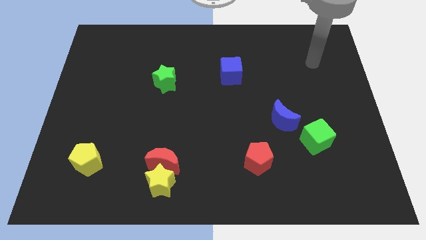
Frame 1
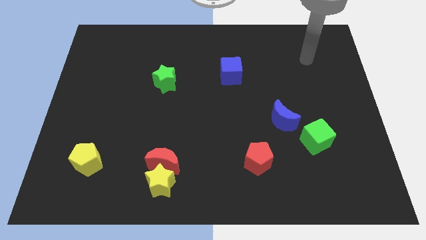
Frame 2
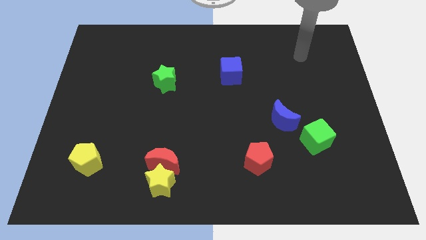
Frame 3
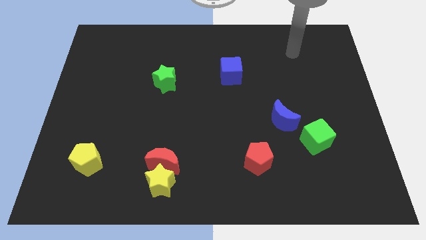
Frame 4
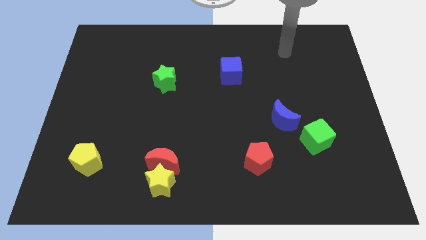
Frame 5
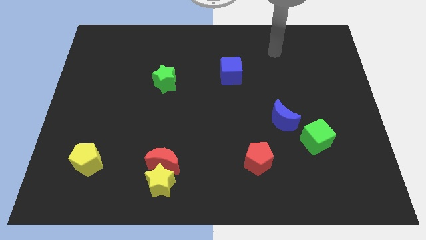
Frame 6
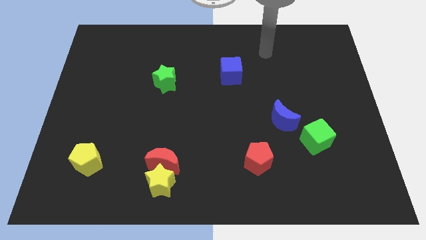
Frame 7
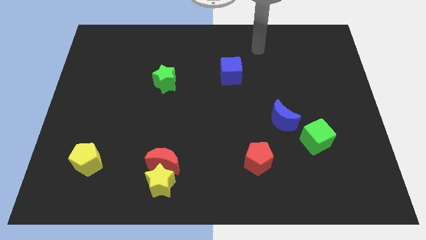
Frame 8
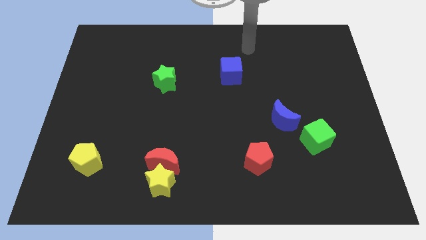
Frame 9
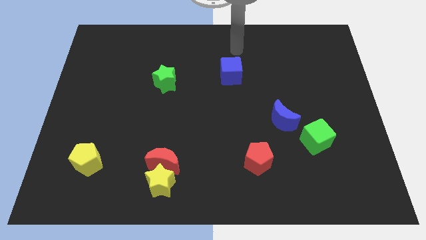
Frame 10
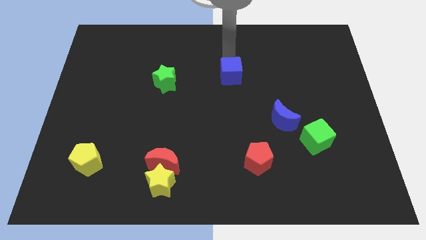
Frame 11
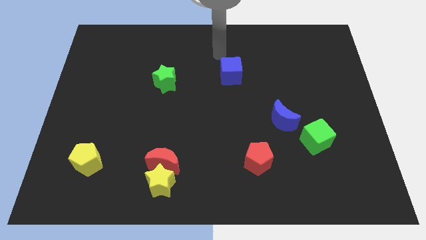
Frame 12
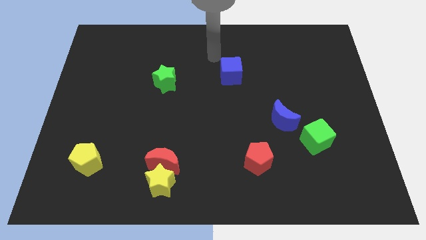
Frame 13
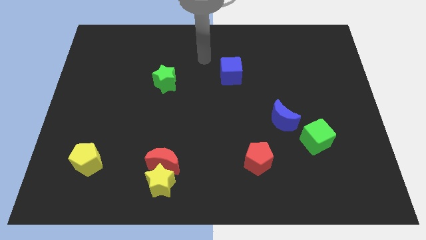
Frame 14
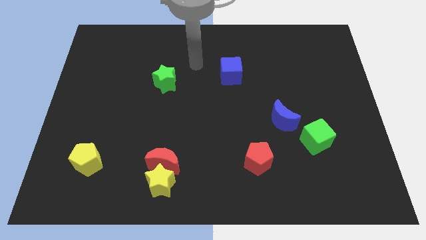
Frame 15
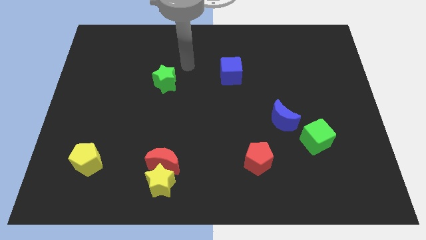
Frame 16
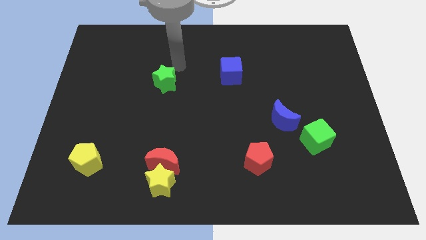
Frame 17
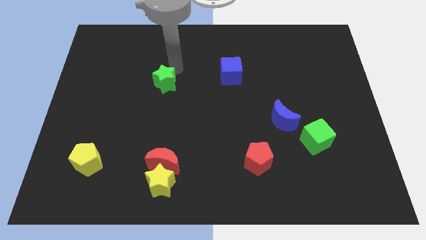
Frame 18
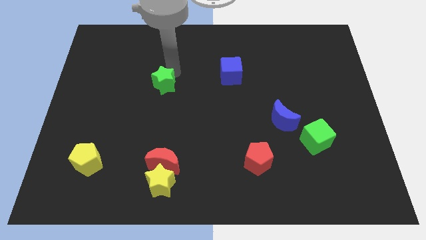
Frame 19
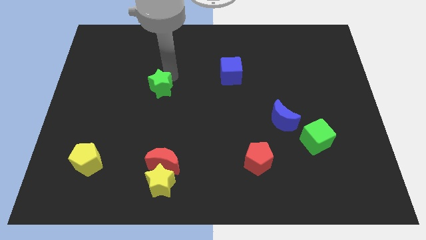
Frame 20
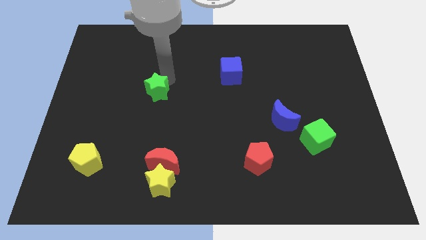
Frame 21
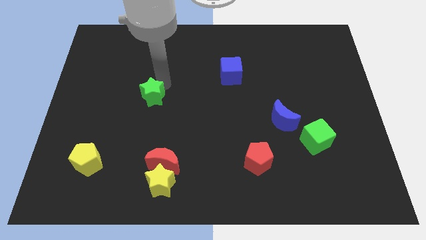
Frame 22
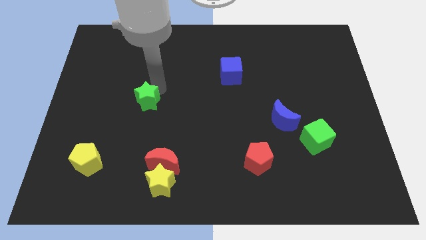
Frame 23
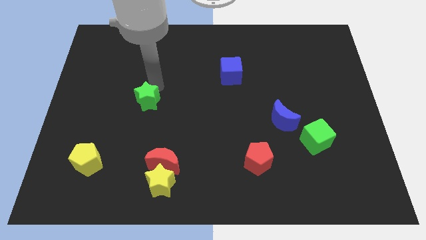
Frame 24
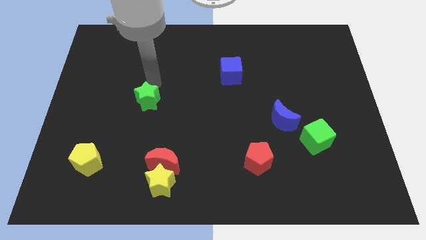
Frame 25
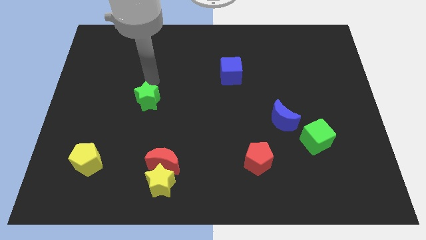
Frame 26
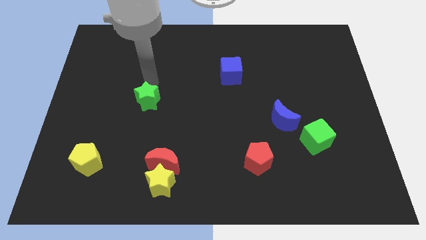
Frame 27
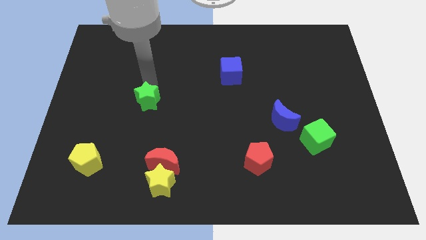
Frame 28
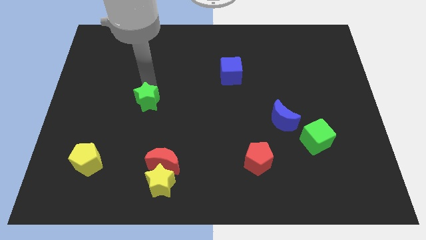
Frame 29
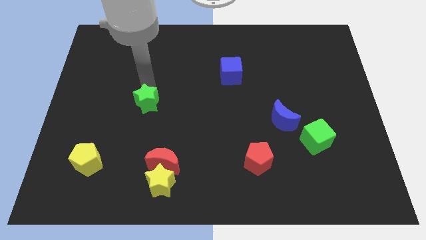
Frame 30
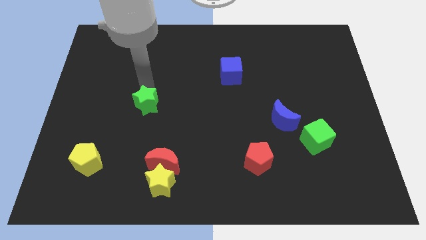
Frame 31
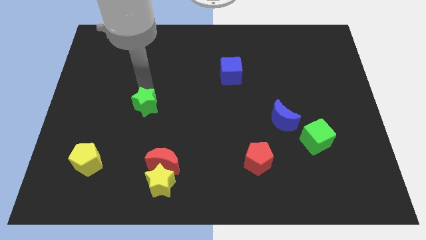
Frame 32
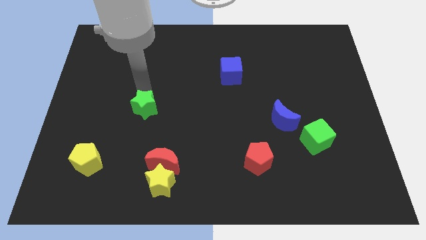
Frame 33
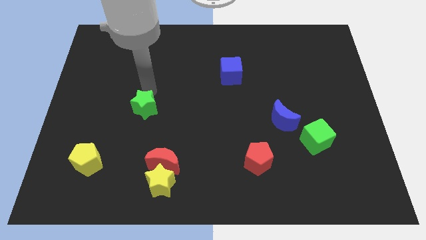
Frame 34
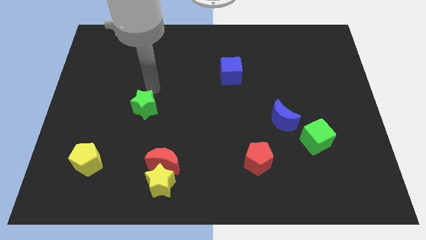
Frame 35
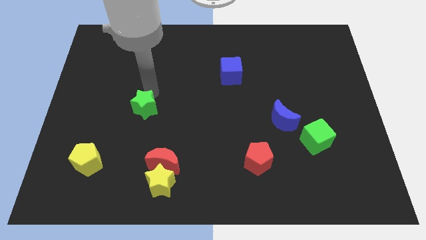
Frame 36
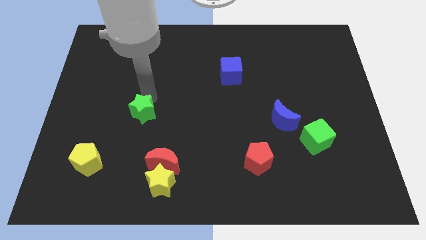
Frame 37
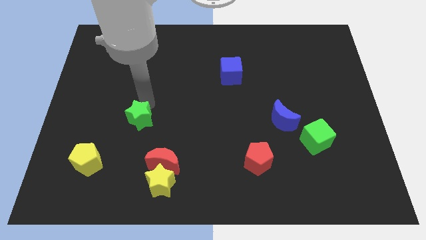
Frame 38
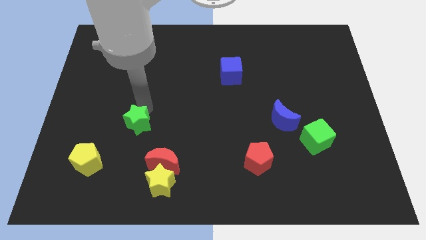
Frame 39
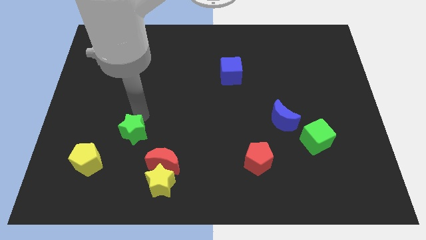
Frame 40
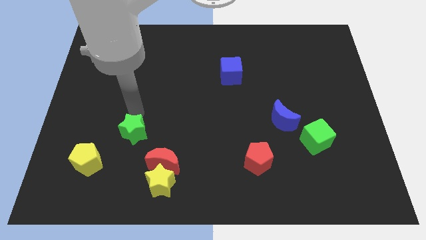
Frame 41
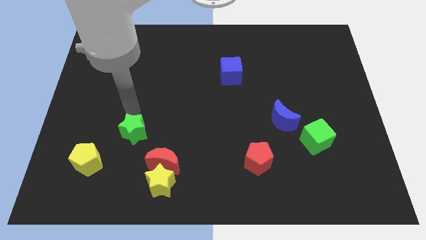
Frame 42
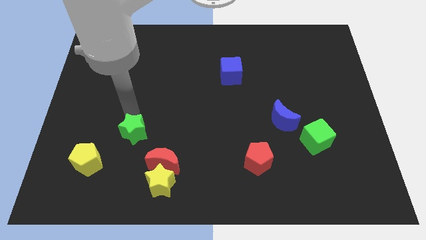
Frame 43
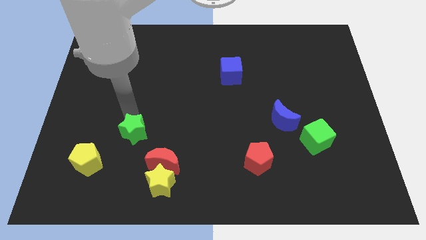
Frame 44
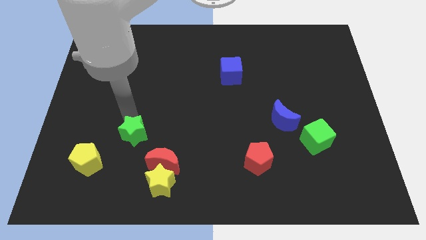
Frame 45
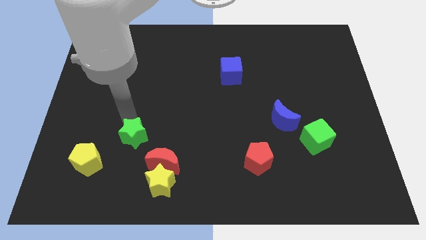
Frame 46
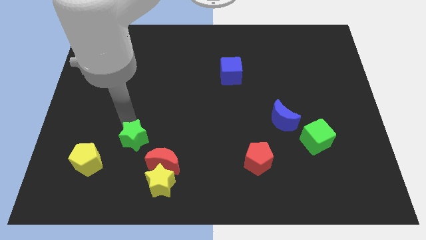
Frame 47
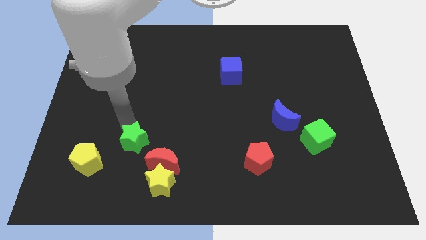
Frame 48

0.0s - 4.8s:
move the green star to the top left side of the yellow star

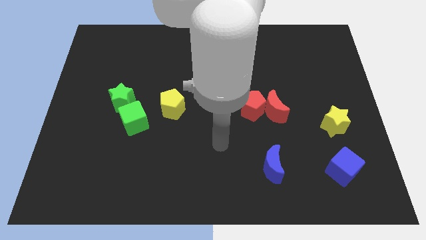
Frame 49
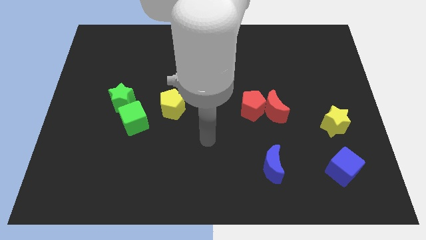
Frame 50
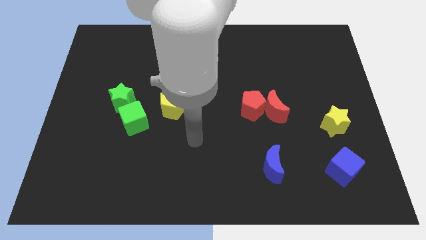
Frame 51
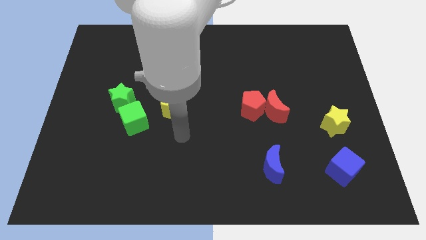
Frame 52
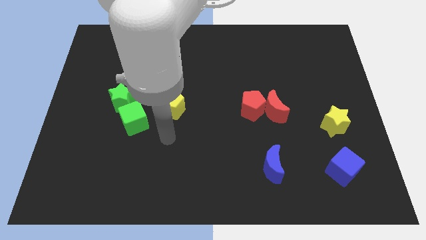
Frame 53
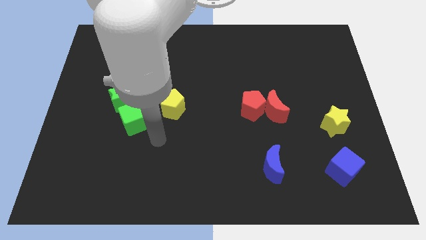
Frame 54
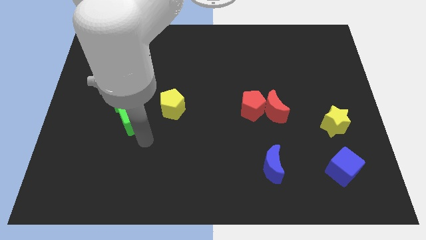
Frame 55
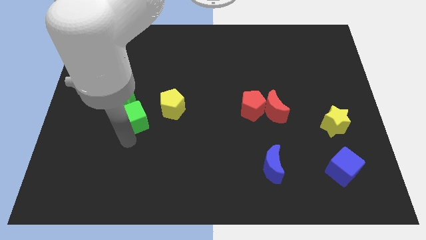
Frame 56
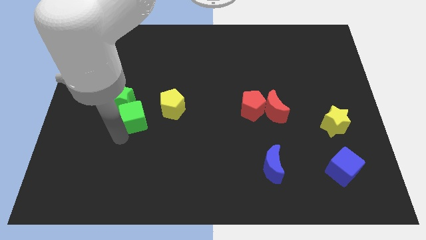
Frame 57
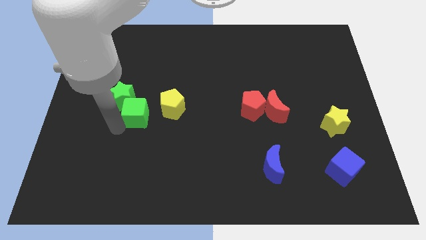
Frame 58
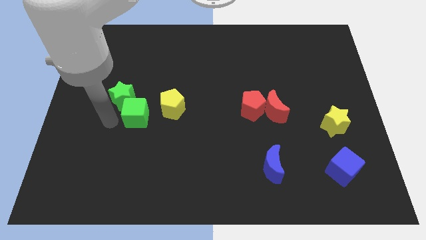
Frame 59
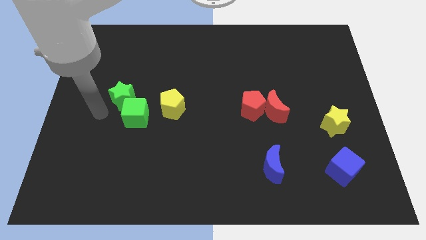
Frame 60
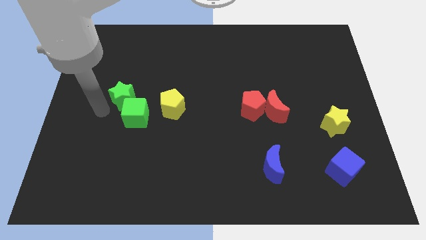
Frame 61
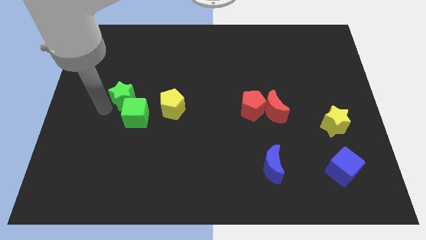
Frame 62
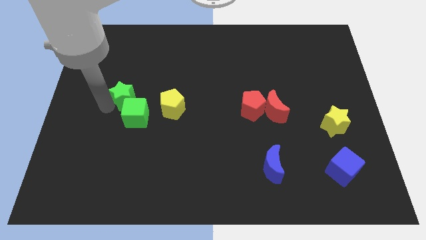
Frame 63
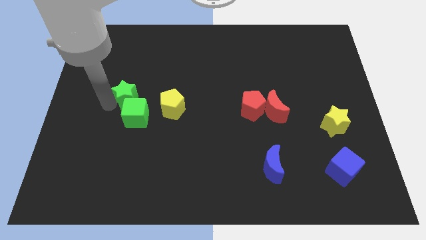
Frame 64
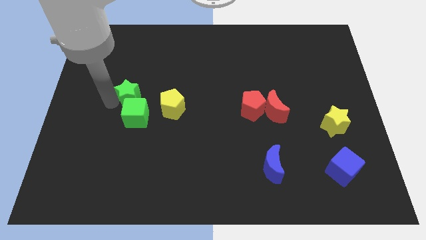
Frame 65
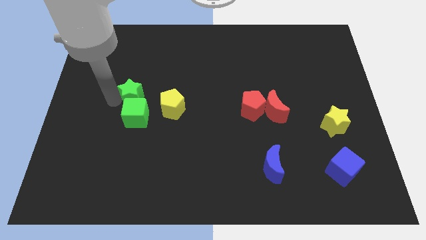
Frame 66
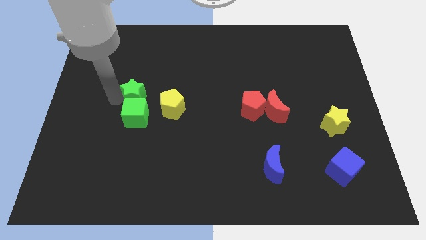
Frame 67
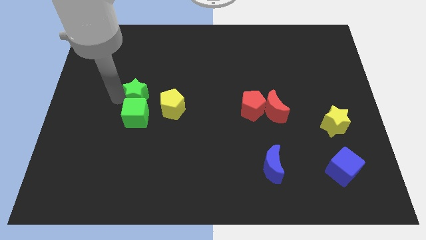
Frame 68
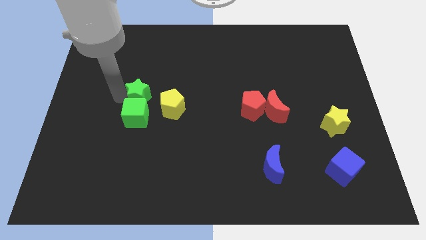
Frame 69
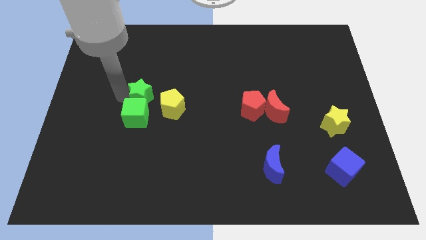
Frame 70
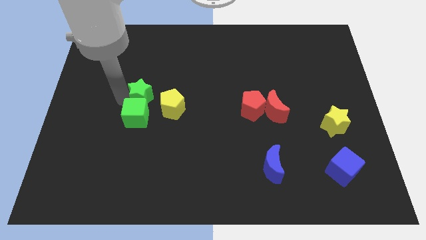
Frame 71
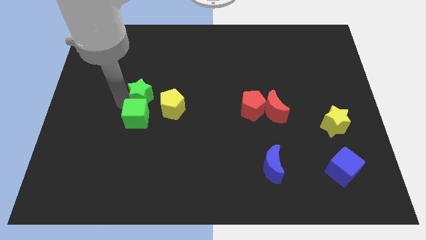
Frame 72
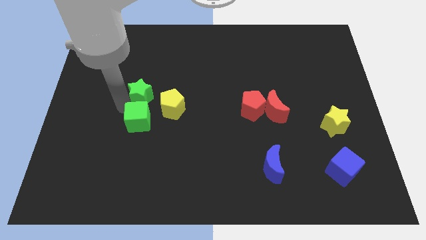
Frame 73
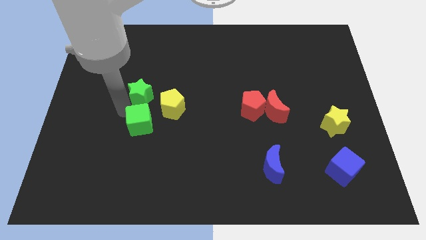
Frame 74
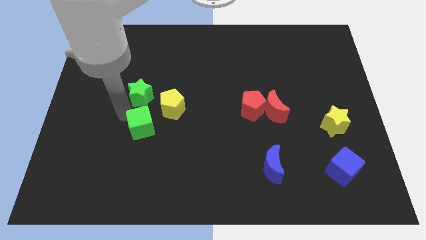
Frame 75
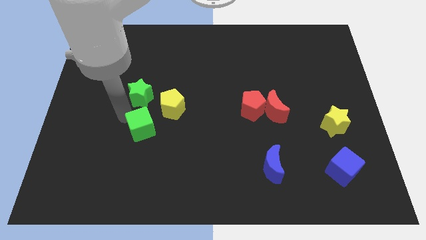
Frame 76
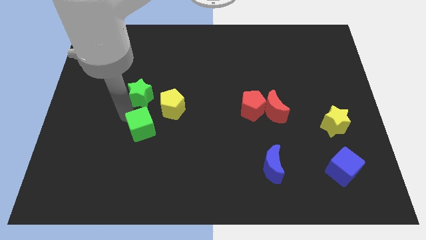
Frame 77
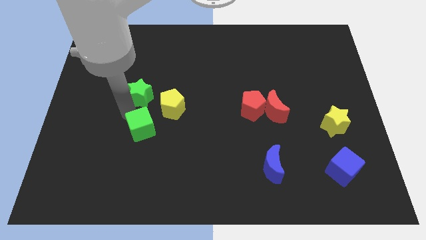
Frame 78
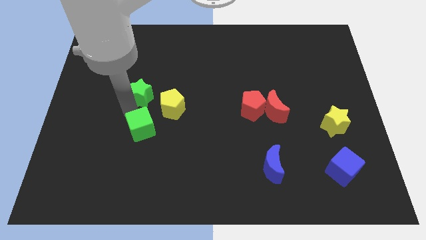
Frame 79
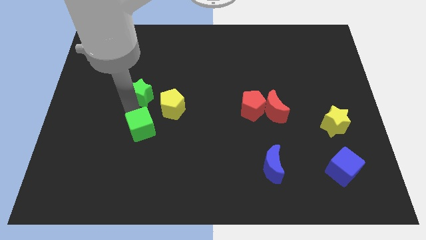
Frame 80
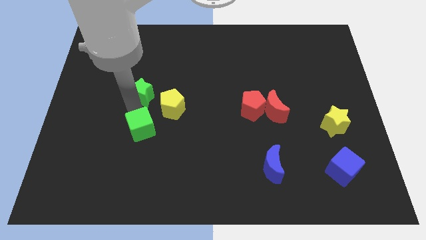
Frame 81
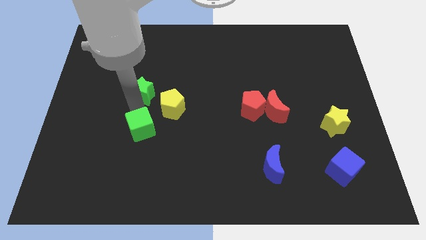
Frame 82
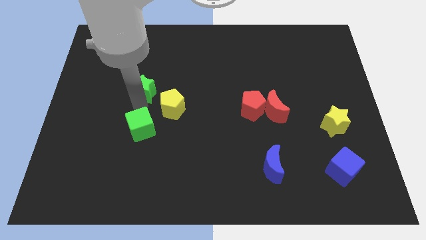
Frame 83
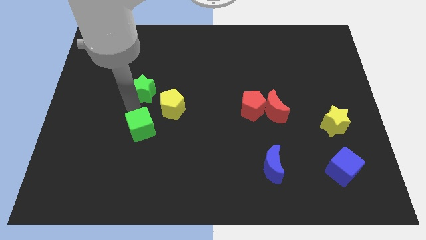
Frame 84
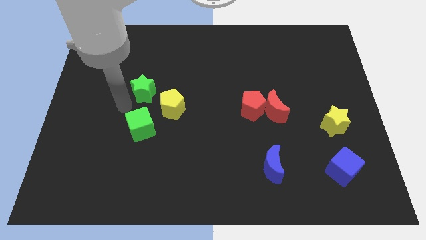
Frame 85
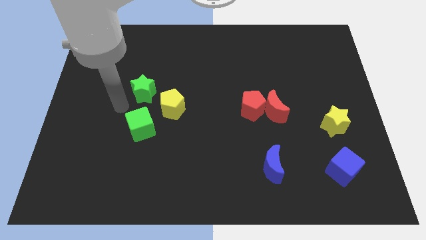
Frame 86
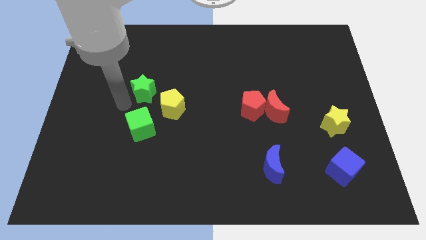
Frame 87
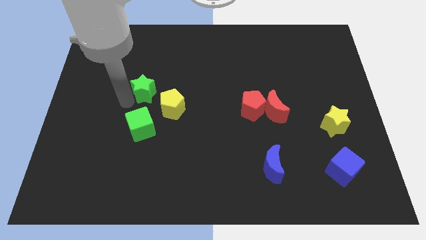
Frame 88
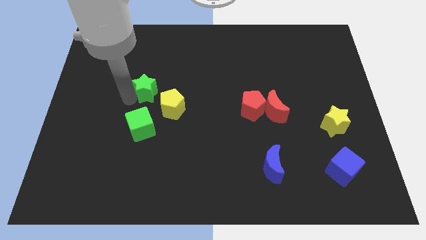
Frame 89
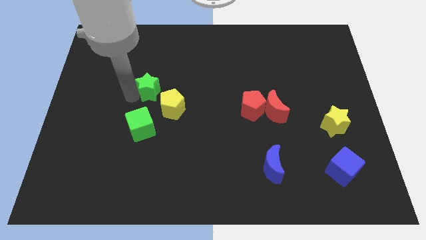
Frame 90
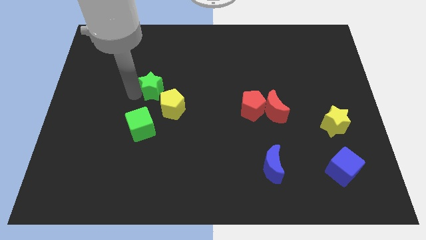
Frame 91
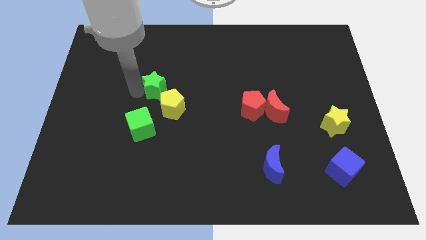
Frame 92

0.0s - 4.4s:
put the green star to the top of the yellow pentagon
